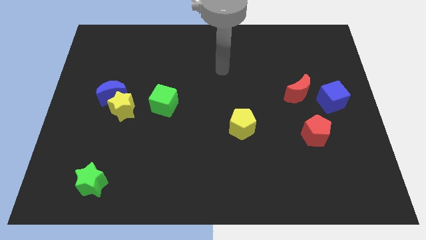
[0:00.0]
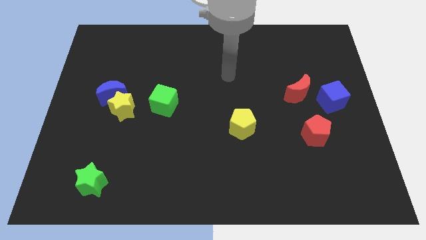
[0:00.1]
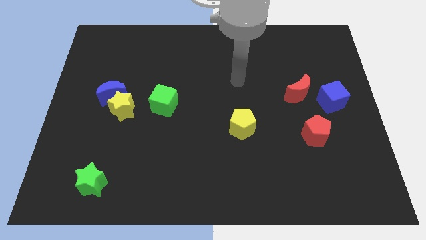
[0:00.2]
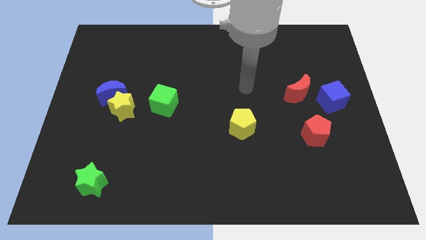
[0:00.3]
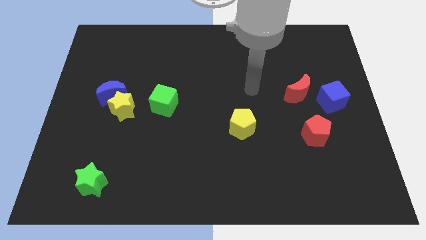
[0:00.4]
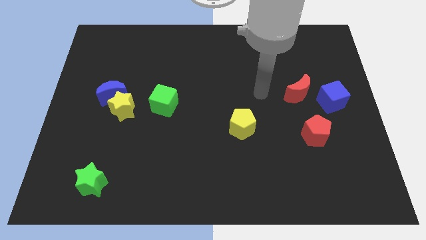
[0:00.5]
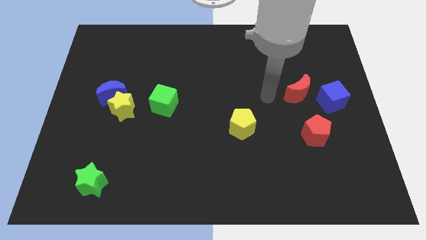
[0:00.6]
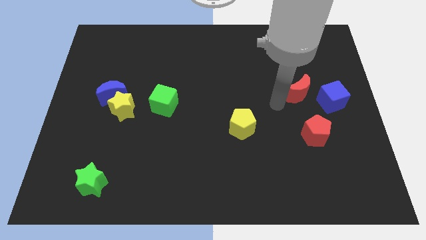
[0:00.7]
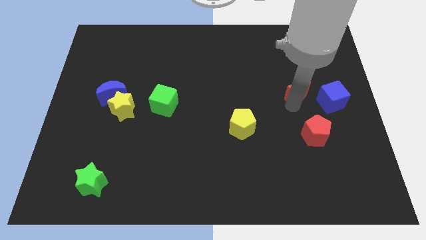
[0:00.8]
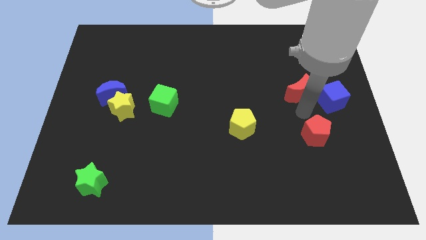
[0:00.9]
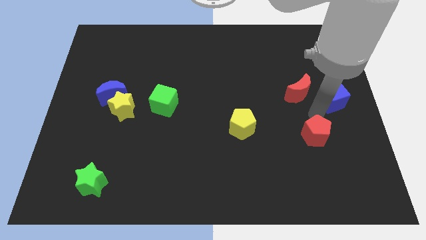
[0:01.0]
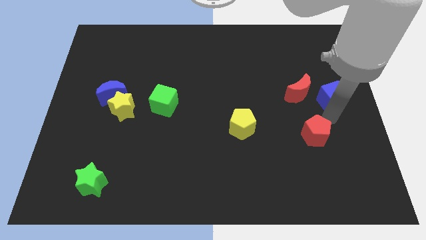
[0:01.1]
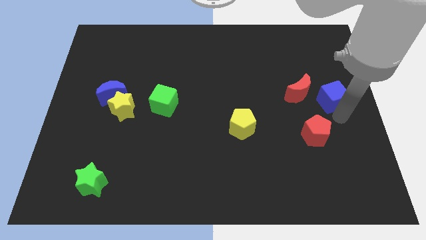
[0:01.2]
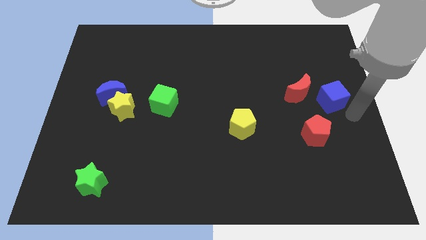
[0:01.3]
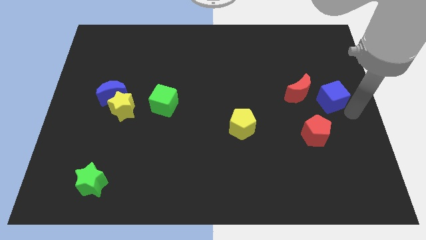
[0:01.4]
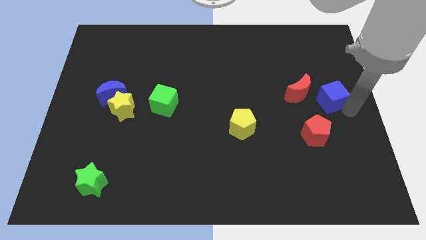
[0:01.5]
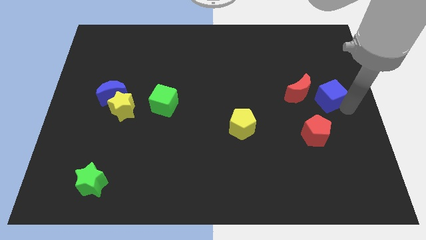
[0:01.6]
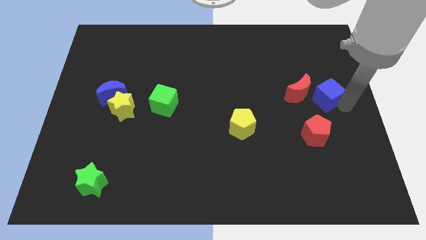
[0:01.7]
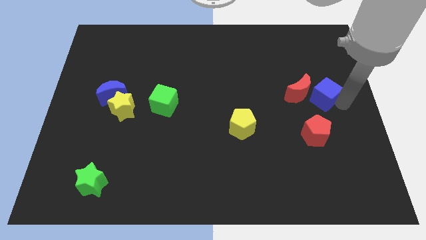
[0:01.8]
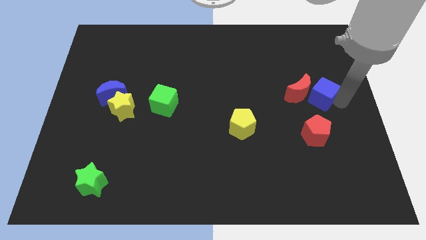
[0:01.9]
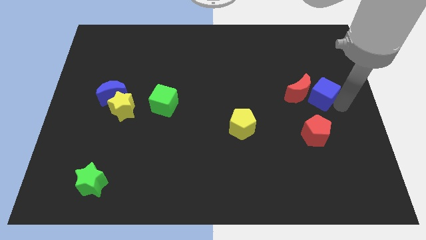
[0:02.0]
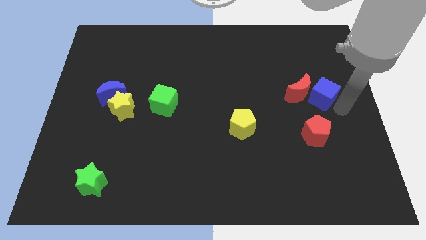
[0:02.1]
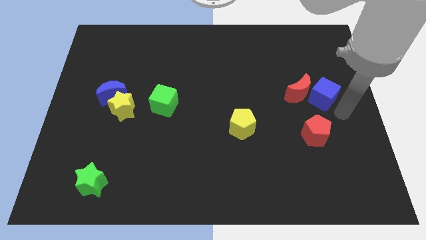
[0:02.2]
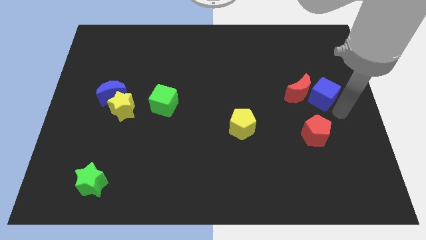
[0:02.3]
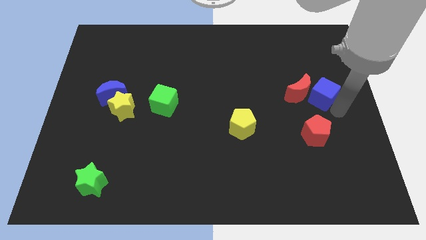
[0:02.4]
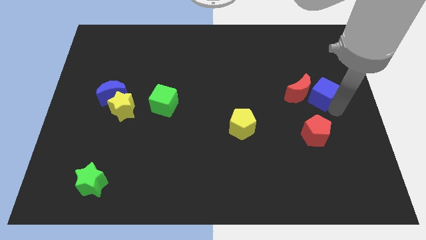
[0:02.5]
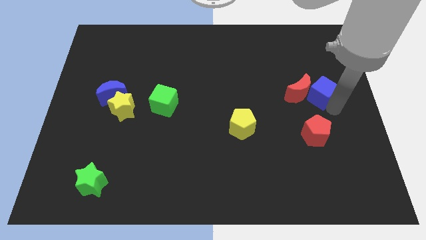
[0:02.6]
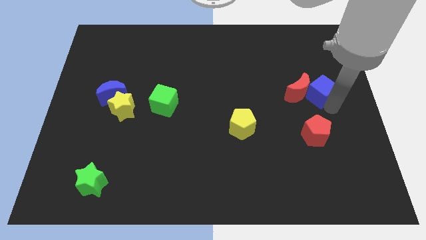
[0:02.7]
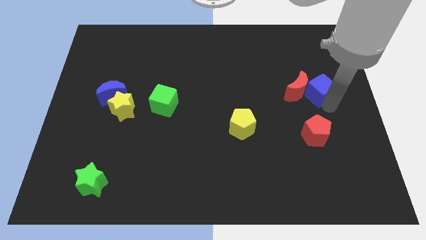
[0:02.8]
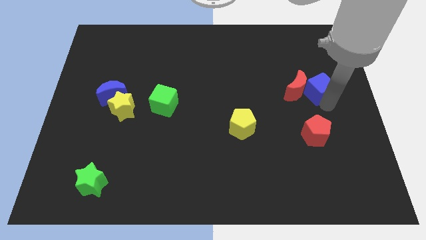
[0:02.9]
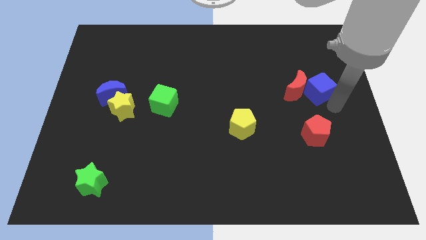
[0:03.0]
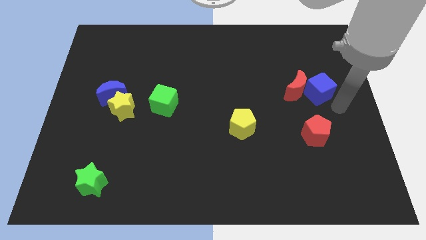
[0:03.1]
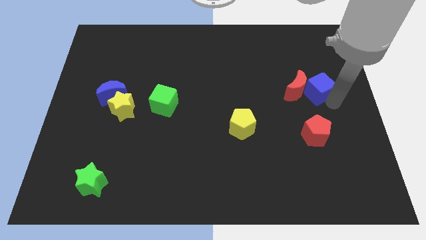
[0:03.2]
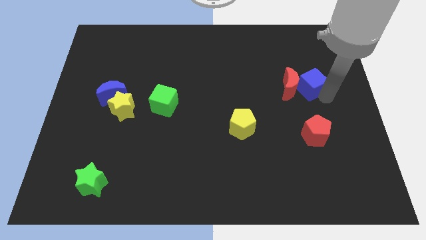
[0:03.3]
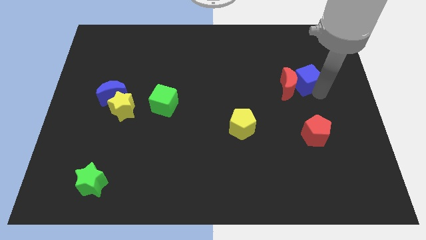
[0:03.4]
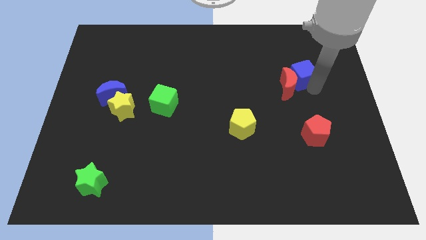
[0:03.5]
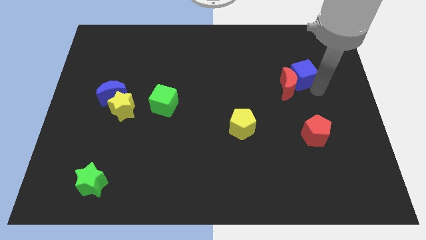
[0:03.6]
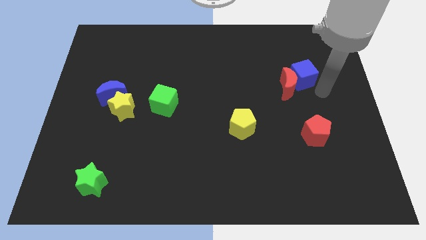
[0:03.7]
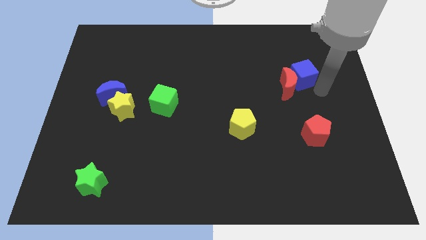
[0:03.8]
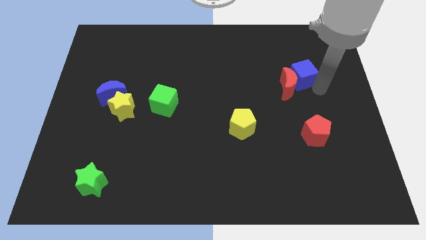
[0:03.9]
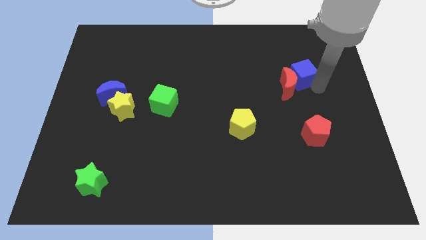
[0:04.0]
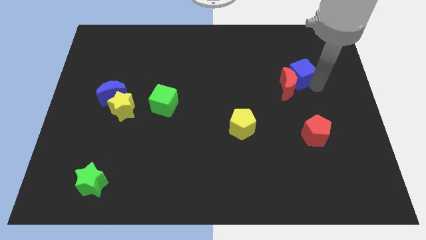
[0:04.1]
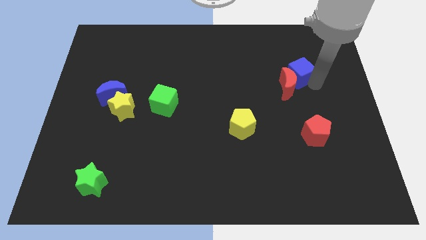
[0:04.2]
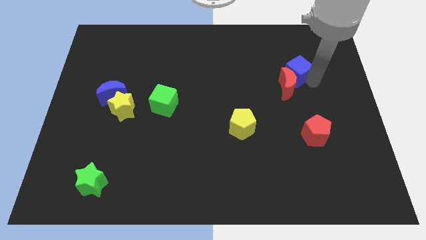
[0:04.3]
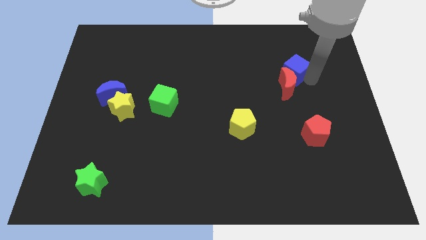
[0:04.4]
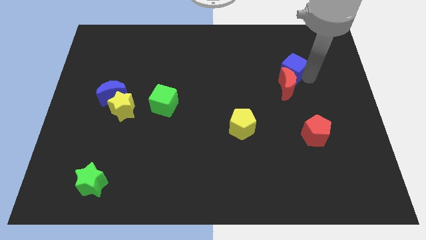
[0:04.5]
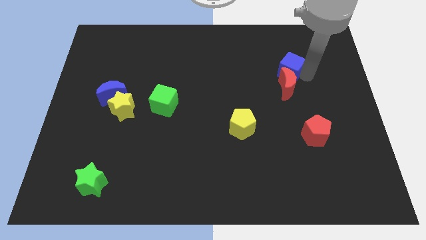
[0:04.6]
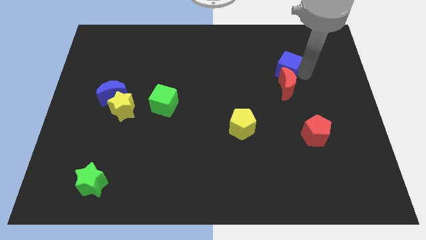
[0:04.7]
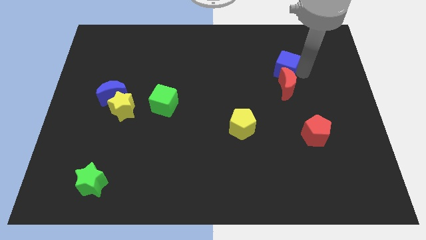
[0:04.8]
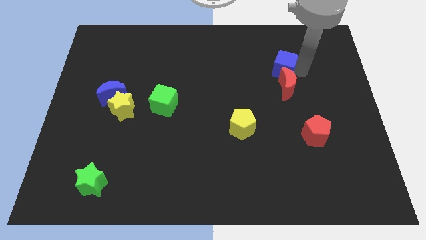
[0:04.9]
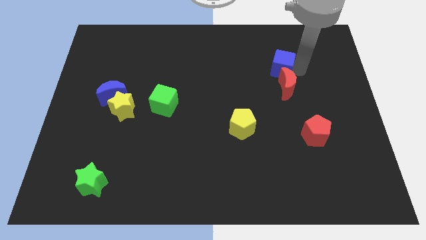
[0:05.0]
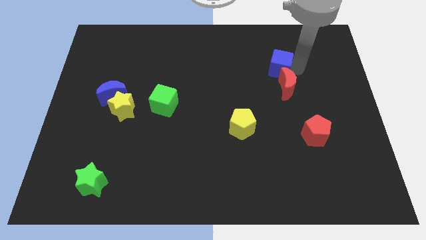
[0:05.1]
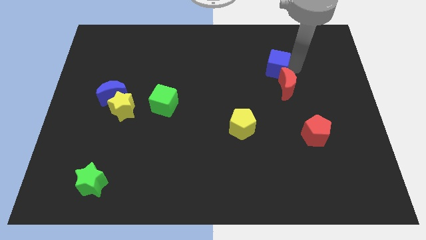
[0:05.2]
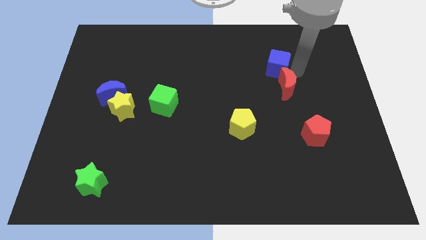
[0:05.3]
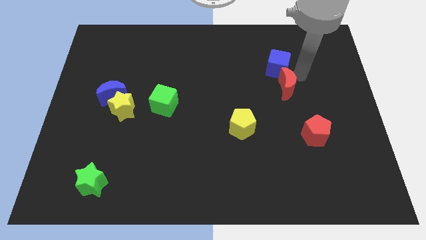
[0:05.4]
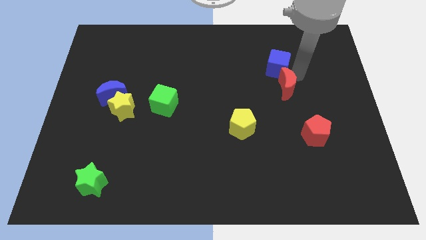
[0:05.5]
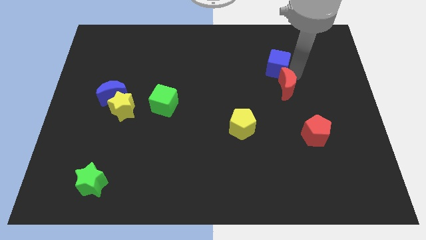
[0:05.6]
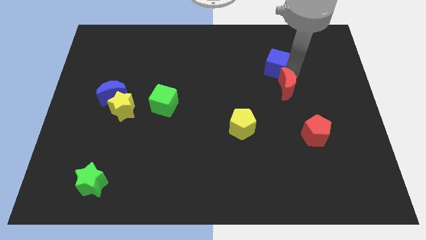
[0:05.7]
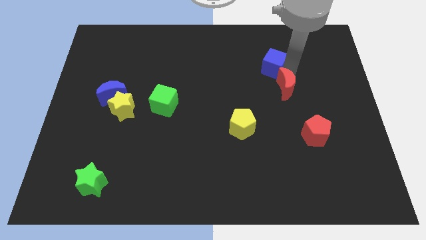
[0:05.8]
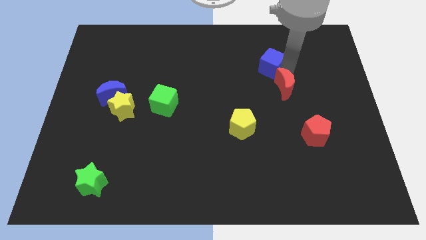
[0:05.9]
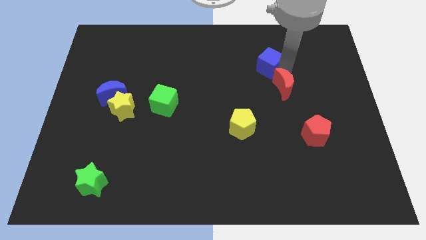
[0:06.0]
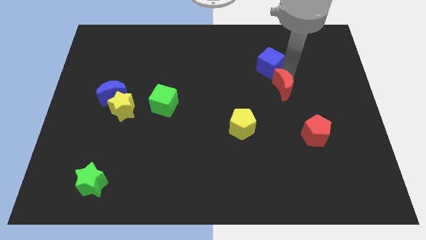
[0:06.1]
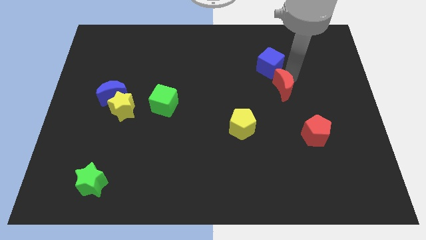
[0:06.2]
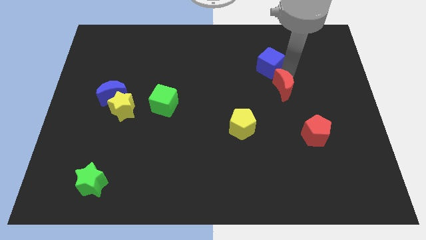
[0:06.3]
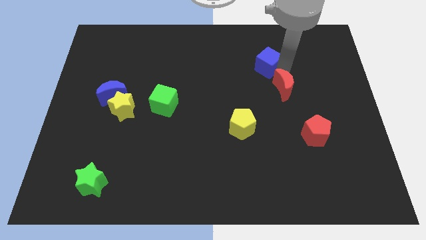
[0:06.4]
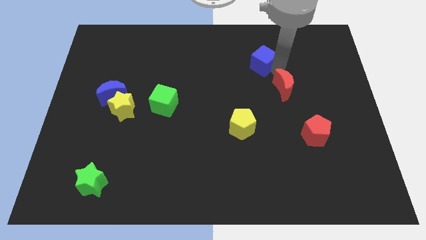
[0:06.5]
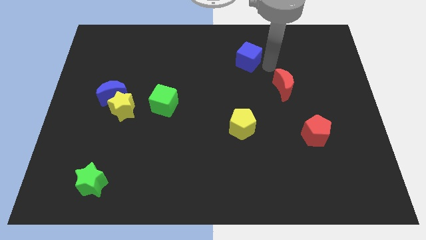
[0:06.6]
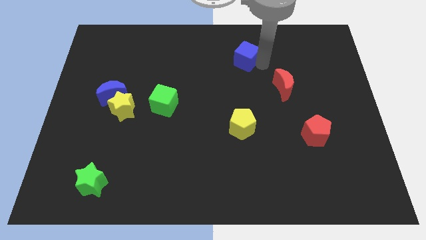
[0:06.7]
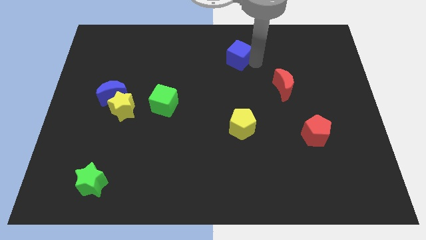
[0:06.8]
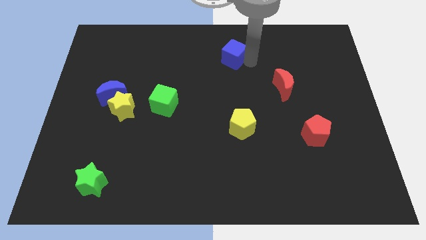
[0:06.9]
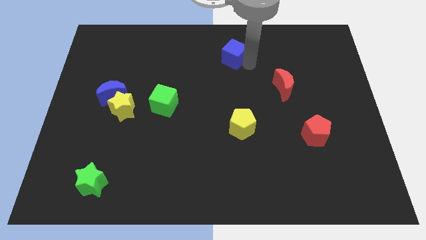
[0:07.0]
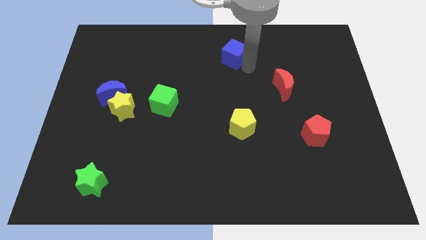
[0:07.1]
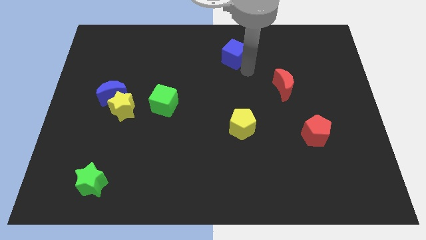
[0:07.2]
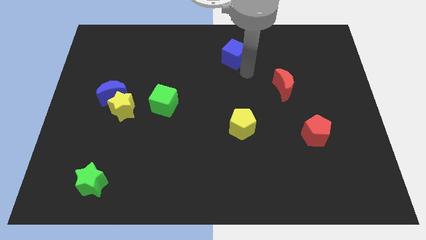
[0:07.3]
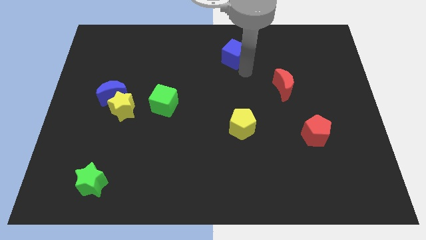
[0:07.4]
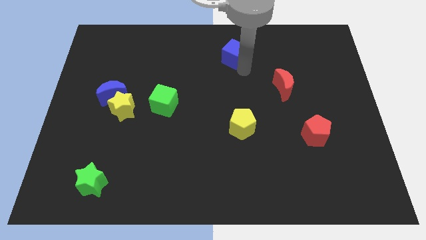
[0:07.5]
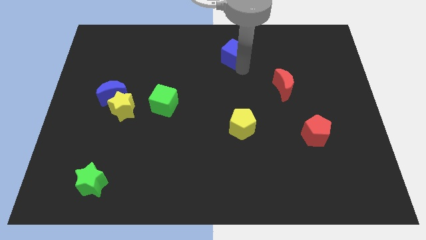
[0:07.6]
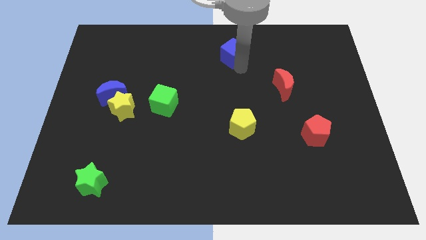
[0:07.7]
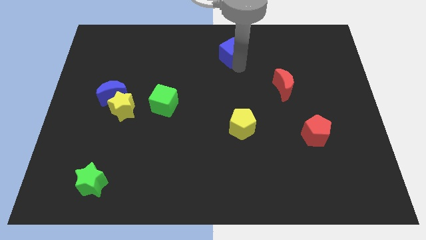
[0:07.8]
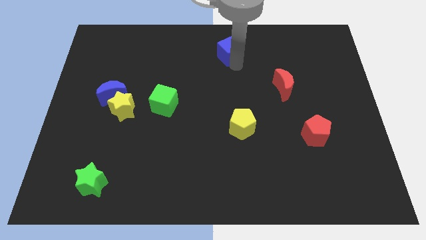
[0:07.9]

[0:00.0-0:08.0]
slide the blue cube to the towards your base

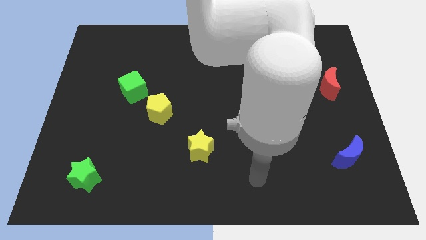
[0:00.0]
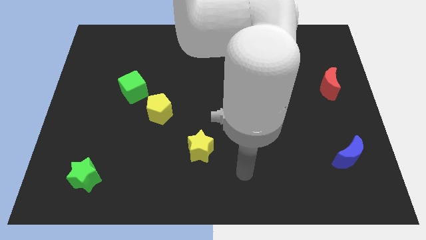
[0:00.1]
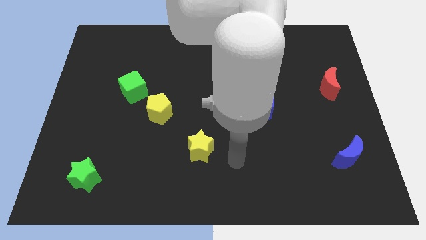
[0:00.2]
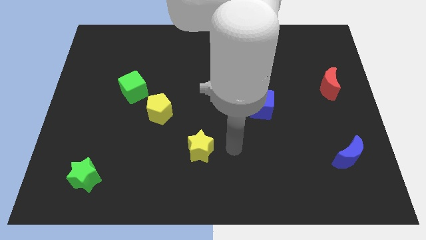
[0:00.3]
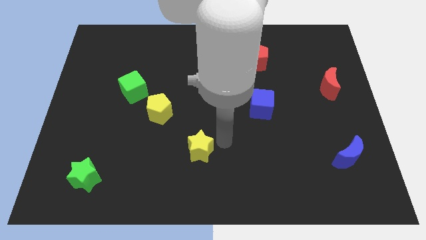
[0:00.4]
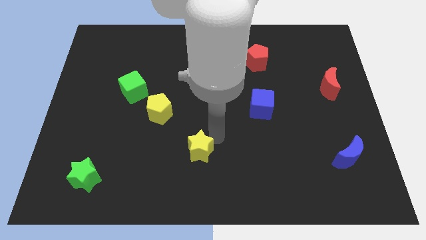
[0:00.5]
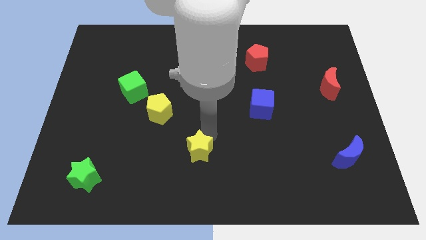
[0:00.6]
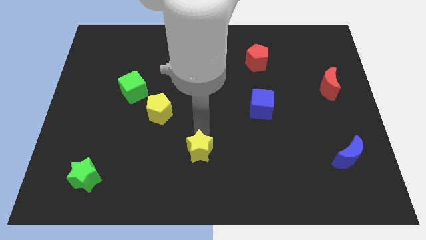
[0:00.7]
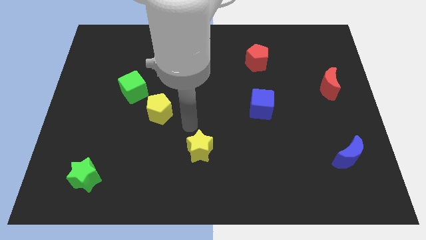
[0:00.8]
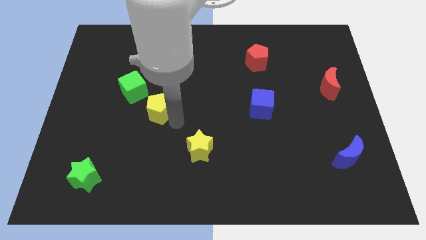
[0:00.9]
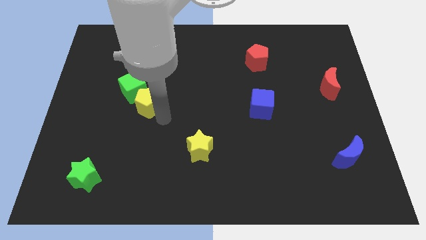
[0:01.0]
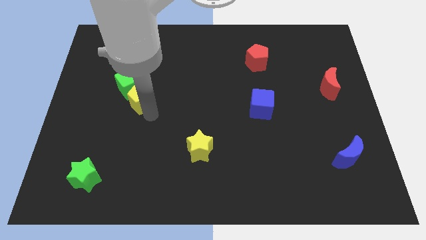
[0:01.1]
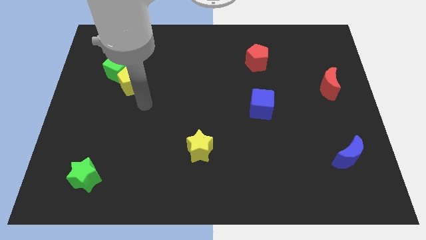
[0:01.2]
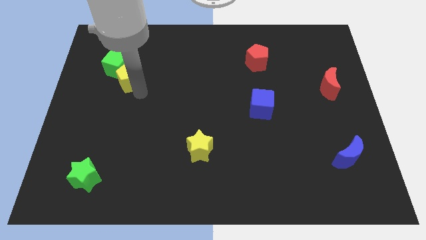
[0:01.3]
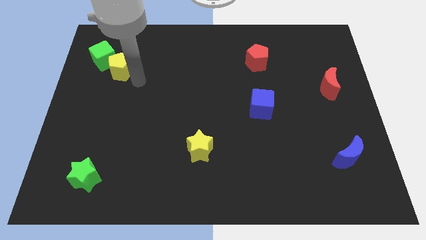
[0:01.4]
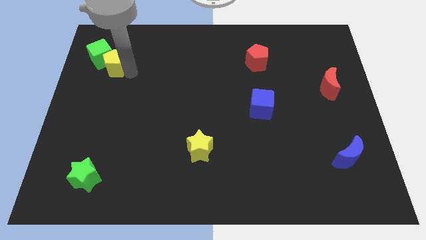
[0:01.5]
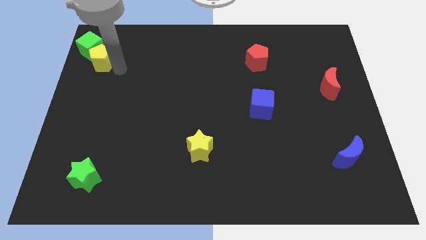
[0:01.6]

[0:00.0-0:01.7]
slide the green cube to the top left of the board
